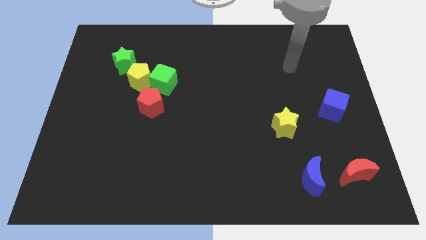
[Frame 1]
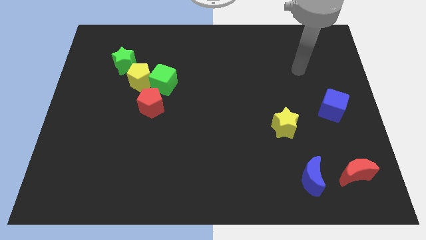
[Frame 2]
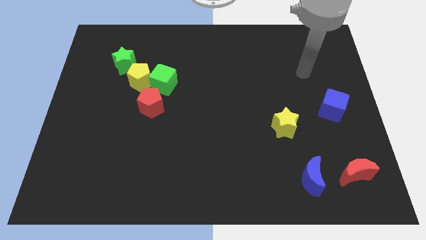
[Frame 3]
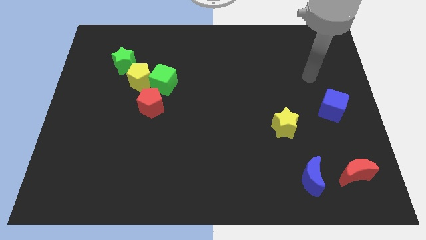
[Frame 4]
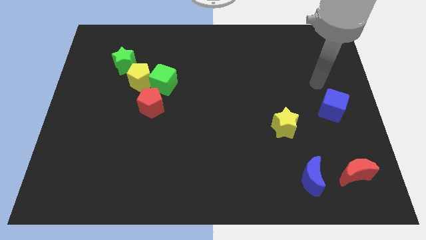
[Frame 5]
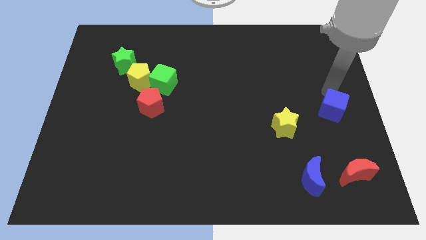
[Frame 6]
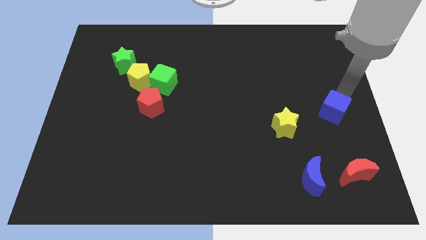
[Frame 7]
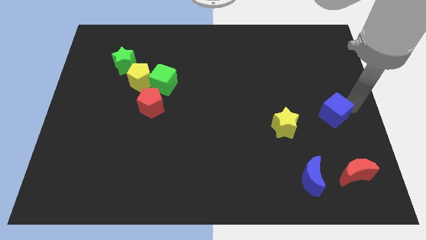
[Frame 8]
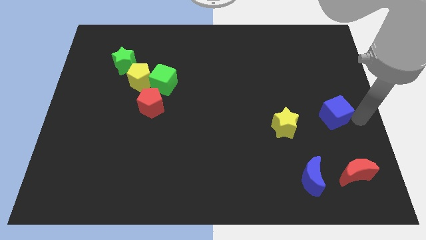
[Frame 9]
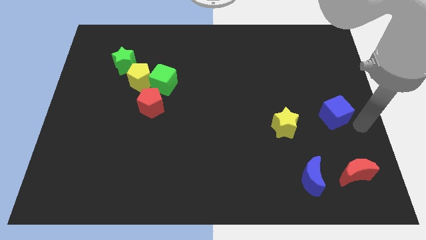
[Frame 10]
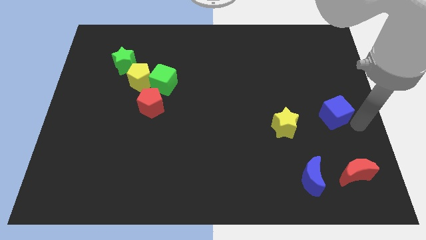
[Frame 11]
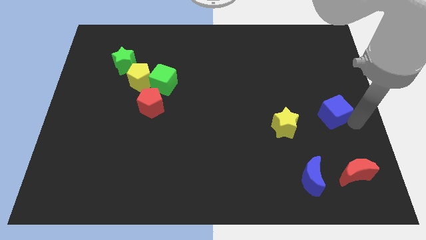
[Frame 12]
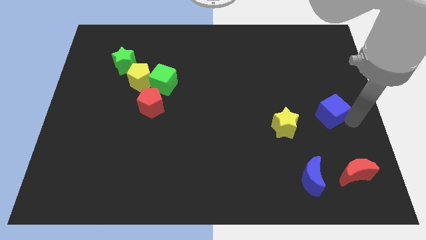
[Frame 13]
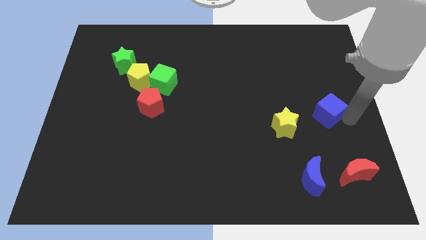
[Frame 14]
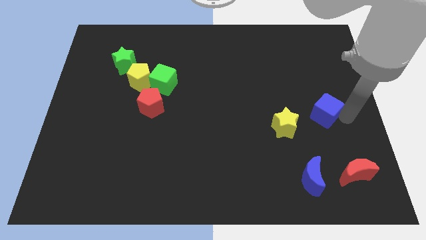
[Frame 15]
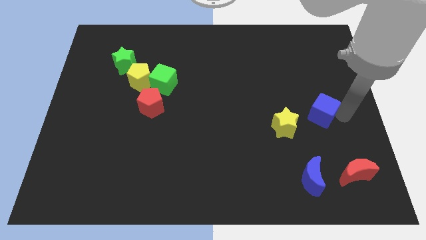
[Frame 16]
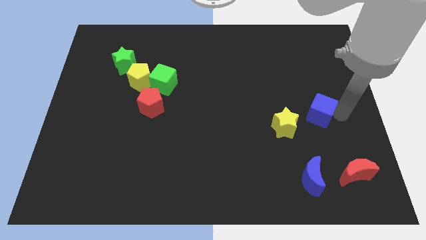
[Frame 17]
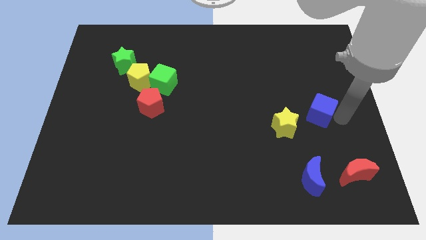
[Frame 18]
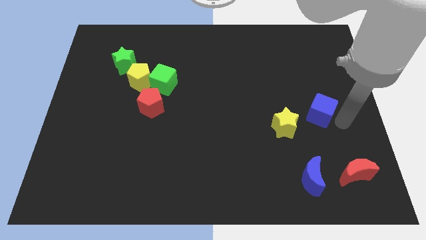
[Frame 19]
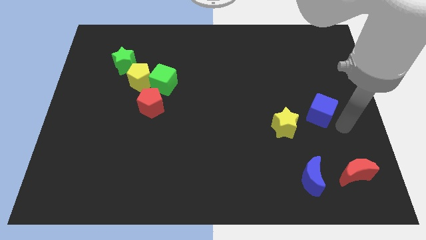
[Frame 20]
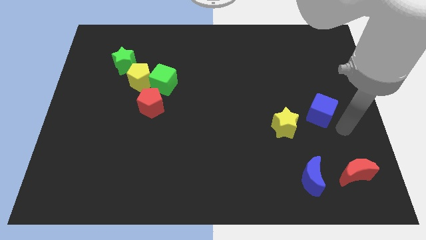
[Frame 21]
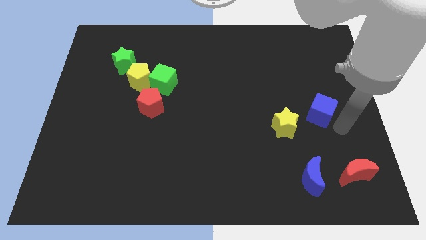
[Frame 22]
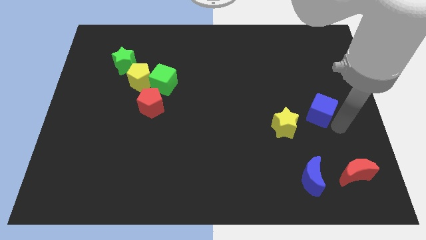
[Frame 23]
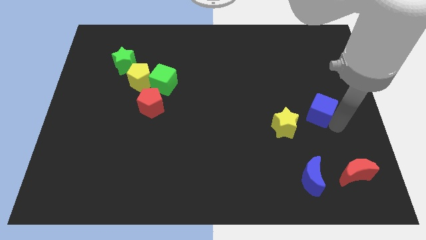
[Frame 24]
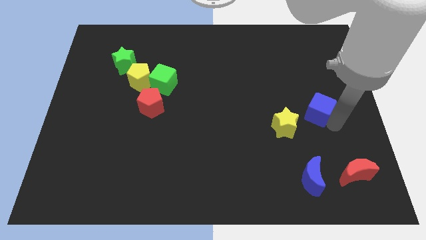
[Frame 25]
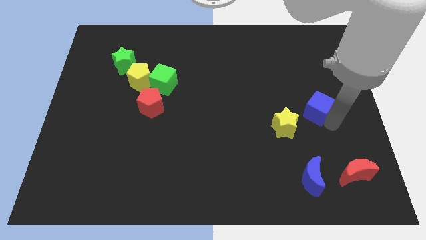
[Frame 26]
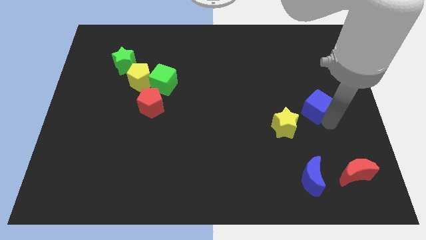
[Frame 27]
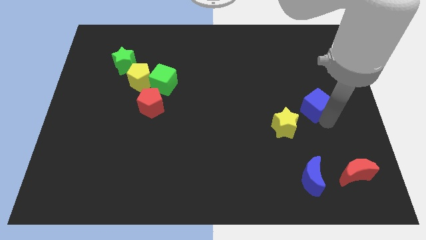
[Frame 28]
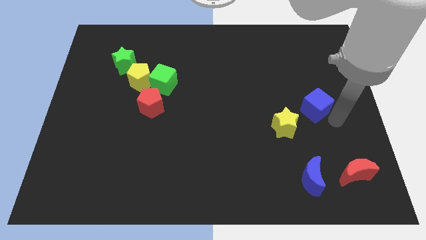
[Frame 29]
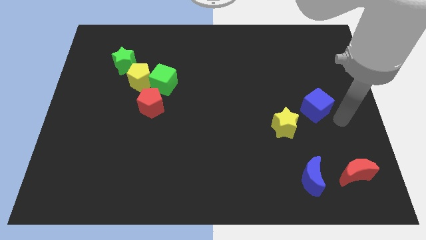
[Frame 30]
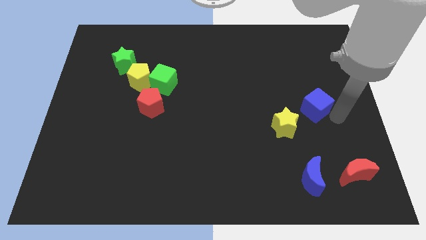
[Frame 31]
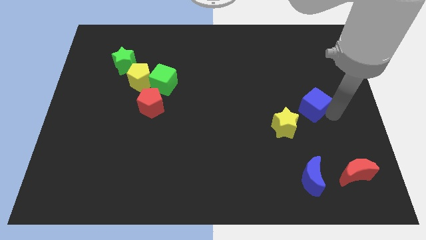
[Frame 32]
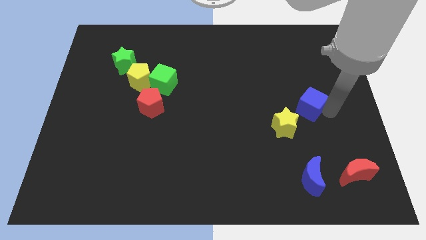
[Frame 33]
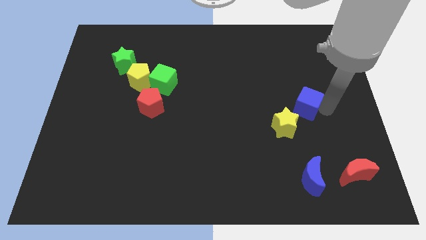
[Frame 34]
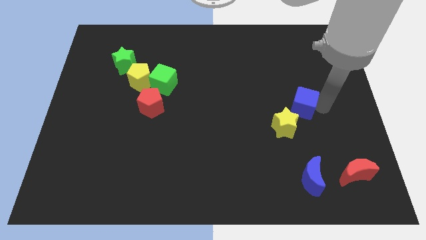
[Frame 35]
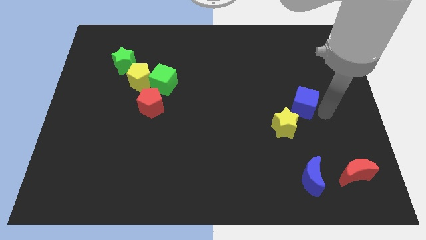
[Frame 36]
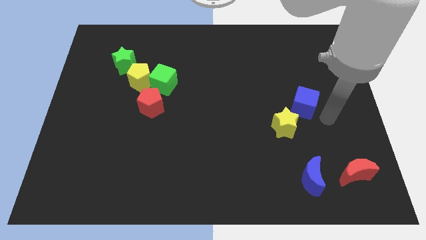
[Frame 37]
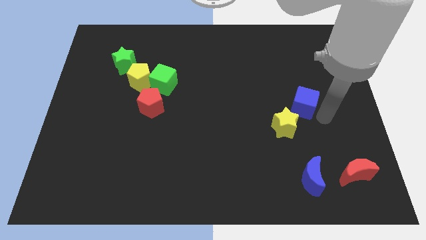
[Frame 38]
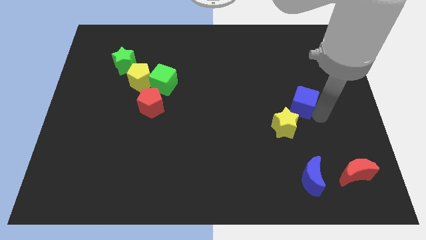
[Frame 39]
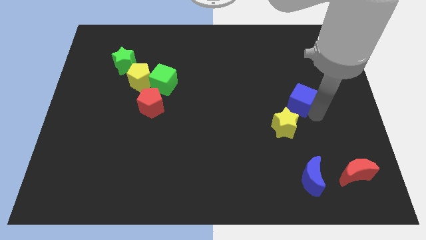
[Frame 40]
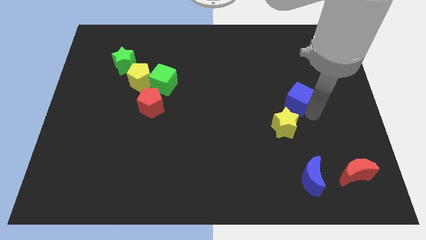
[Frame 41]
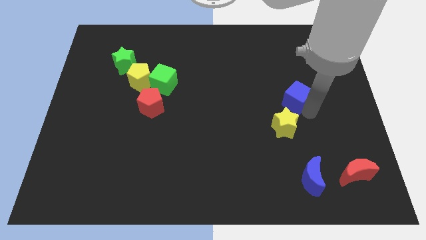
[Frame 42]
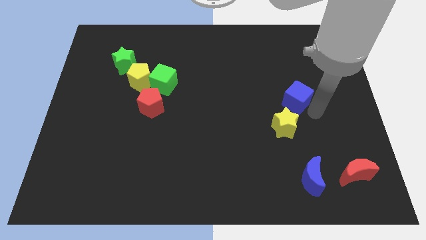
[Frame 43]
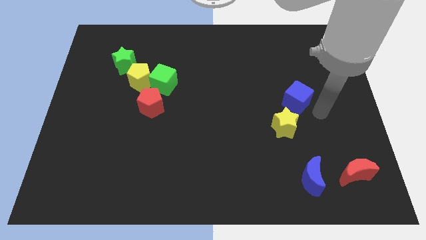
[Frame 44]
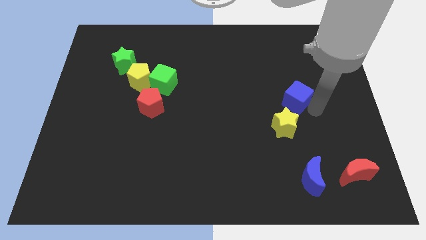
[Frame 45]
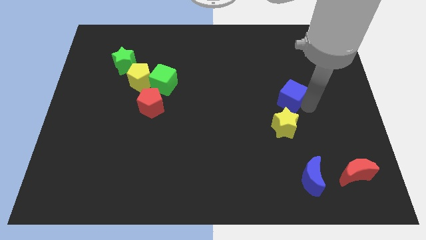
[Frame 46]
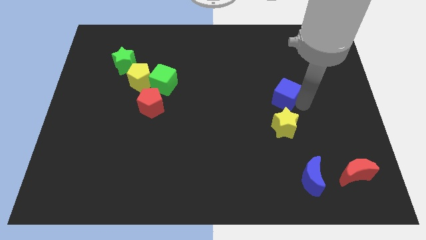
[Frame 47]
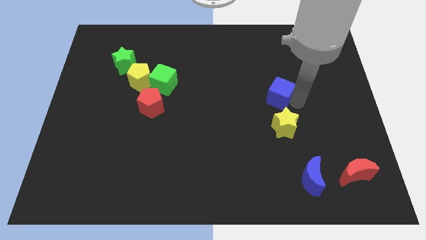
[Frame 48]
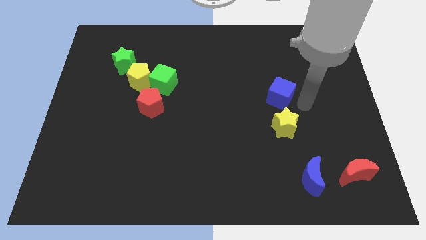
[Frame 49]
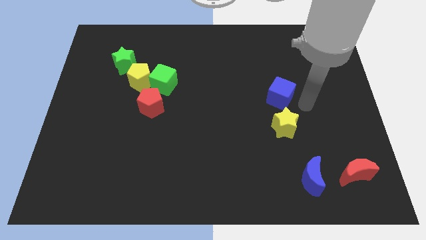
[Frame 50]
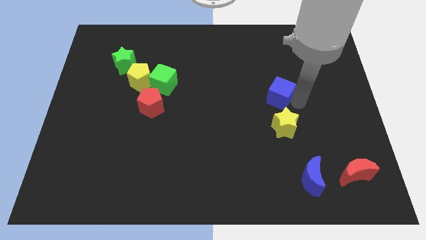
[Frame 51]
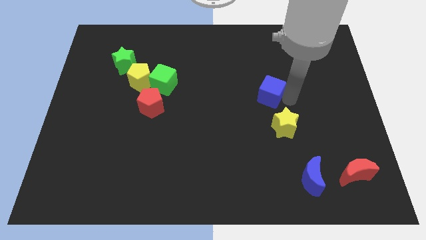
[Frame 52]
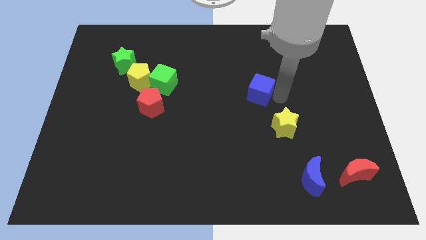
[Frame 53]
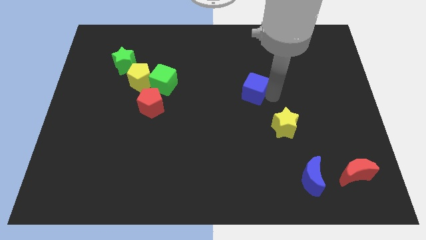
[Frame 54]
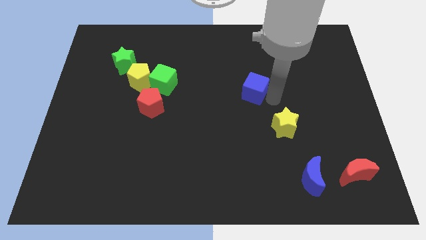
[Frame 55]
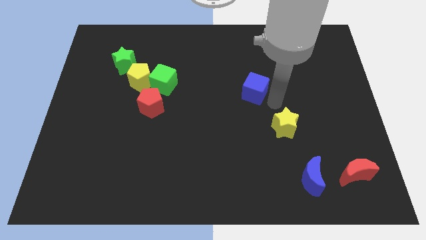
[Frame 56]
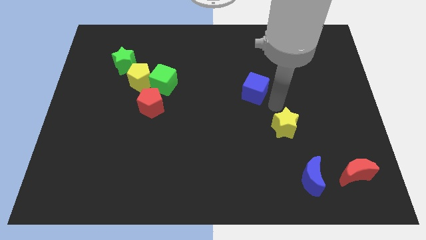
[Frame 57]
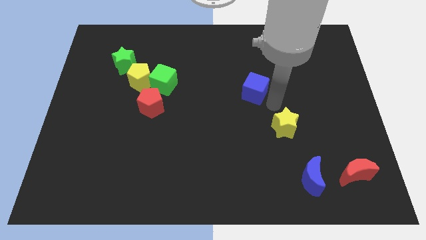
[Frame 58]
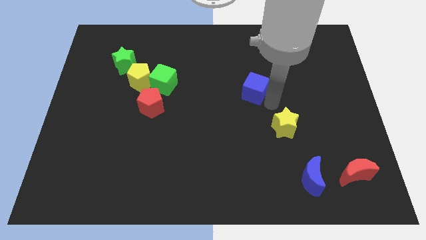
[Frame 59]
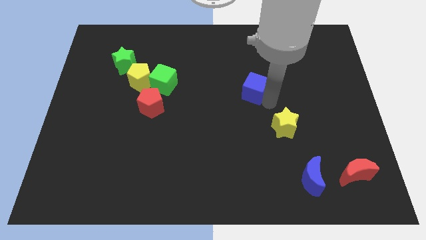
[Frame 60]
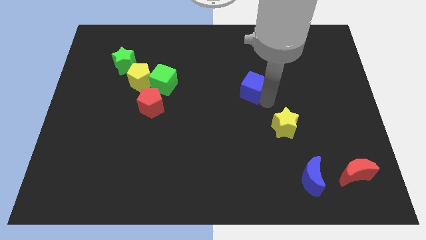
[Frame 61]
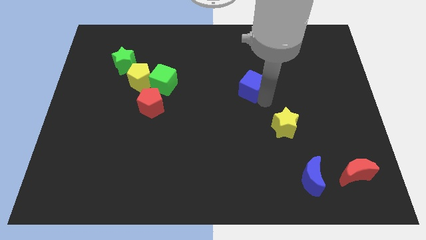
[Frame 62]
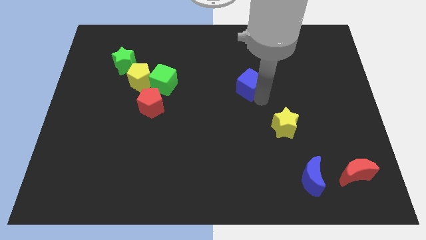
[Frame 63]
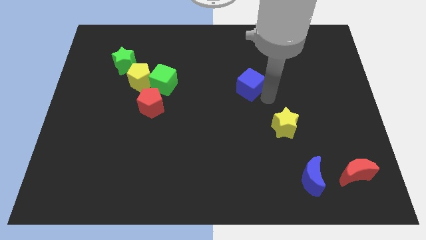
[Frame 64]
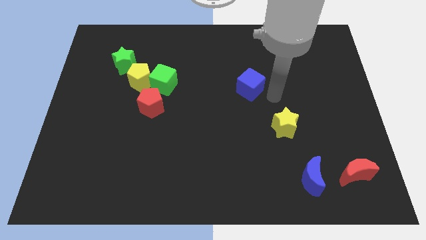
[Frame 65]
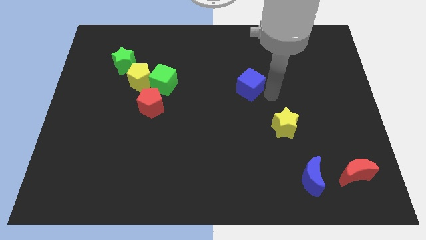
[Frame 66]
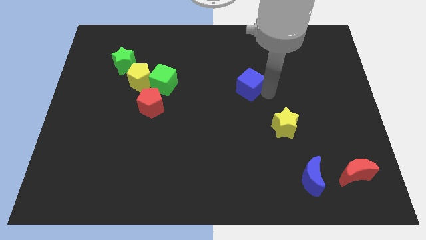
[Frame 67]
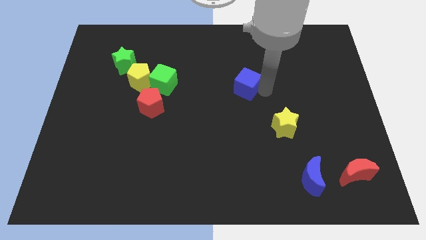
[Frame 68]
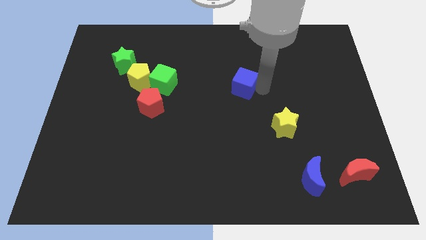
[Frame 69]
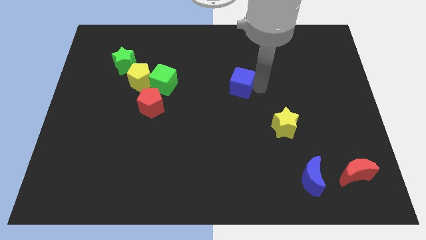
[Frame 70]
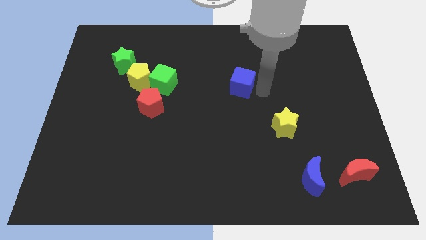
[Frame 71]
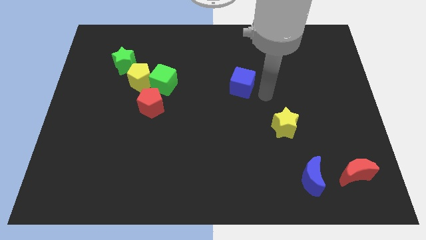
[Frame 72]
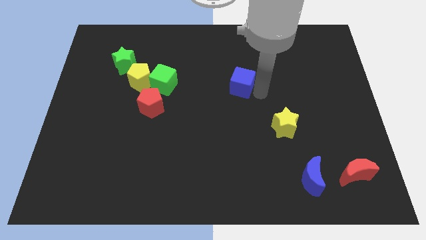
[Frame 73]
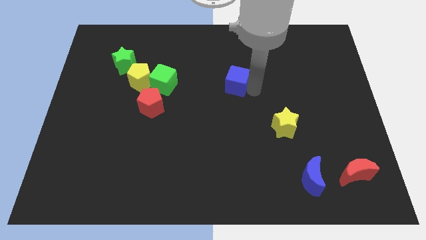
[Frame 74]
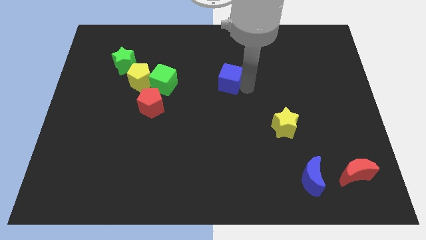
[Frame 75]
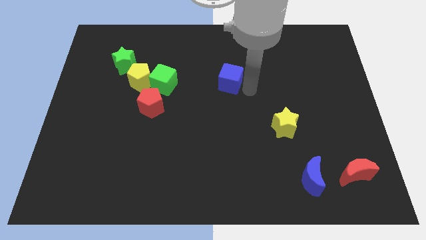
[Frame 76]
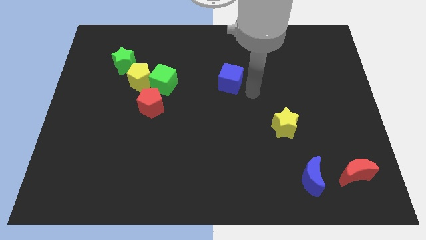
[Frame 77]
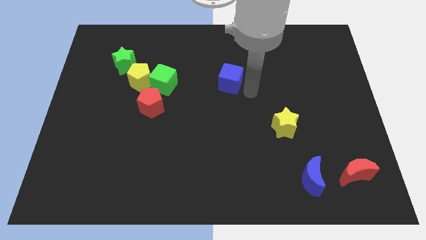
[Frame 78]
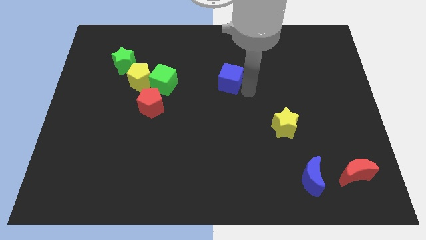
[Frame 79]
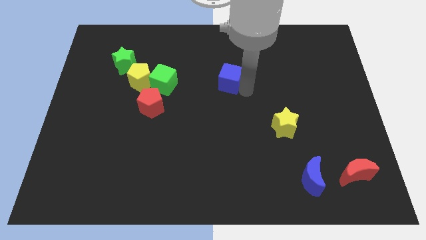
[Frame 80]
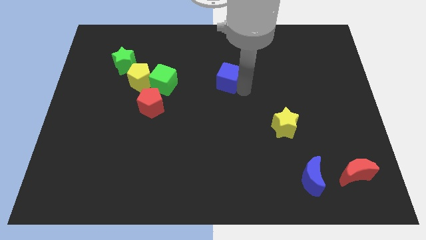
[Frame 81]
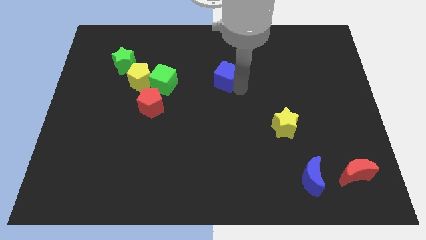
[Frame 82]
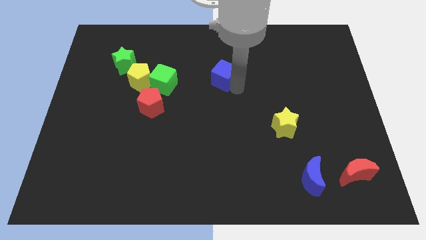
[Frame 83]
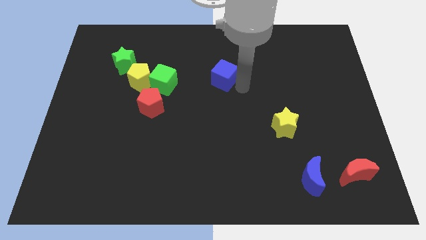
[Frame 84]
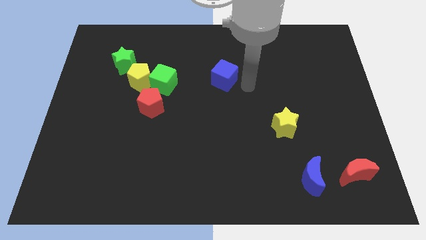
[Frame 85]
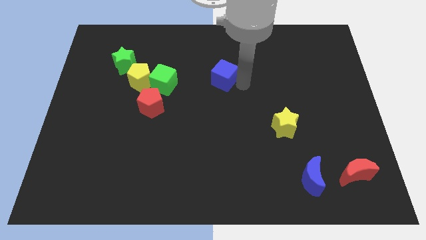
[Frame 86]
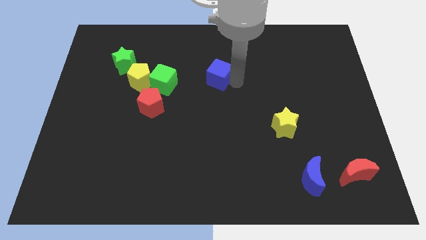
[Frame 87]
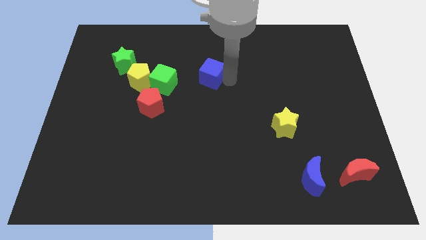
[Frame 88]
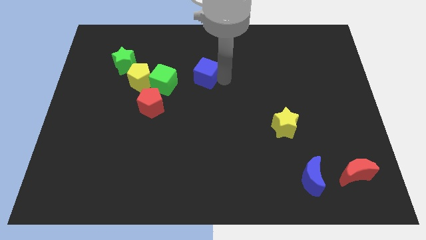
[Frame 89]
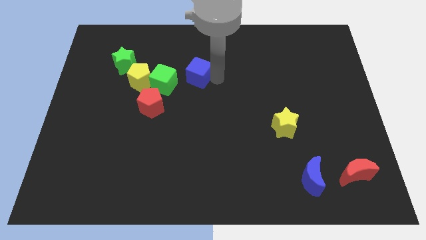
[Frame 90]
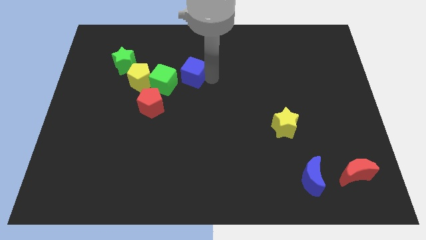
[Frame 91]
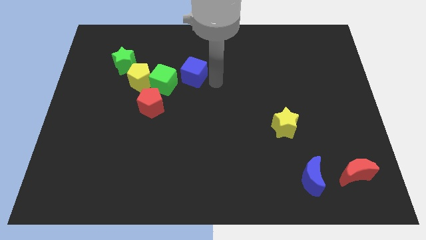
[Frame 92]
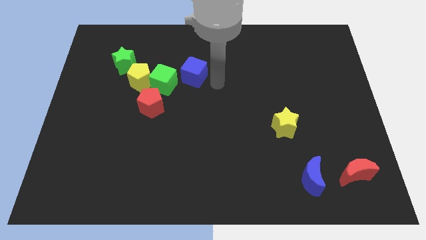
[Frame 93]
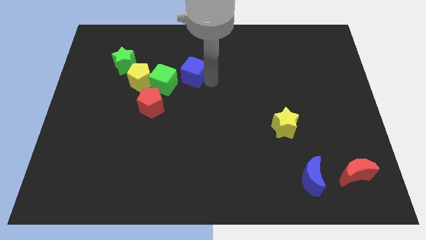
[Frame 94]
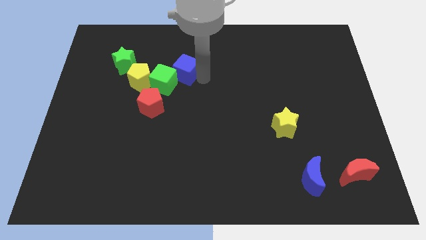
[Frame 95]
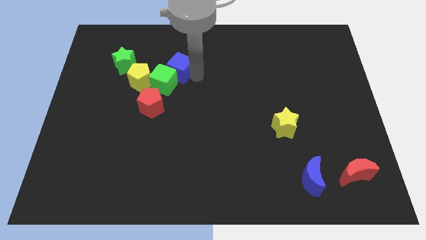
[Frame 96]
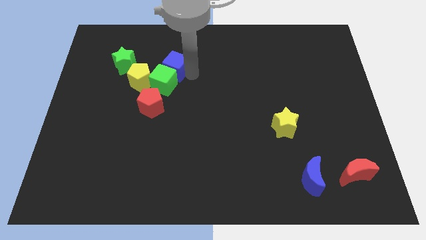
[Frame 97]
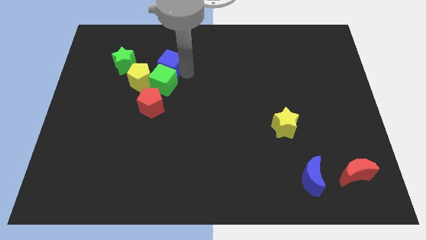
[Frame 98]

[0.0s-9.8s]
slide the blue cube to the top left side of the green cube
